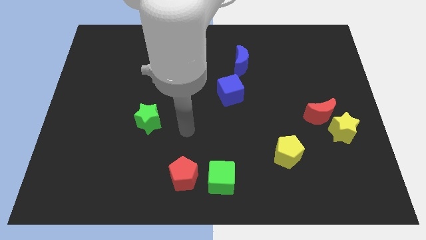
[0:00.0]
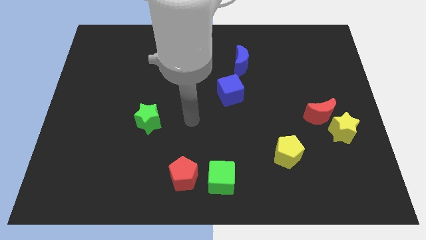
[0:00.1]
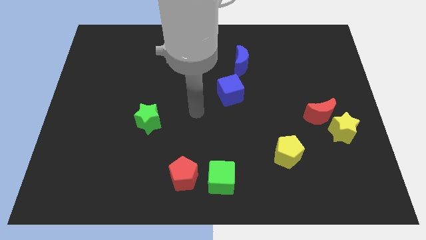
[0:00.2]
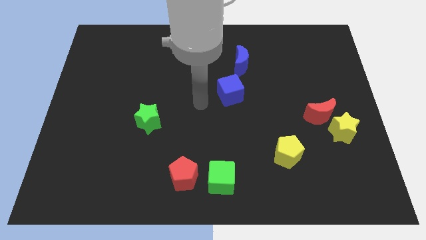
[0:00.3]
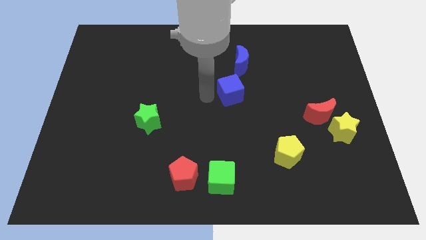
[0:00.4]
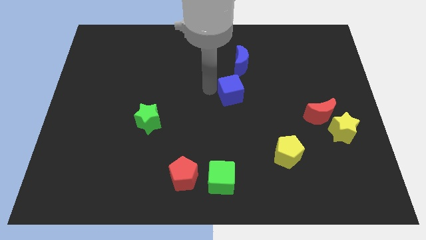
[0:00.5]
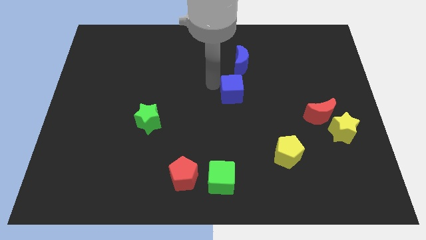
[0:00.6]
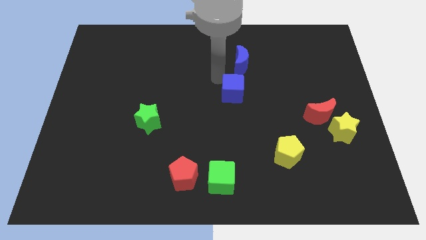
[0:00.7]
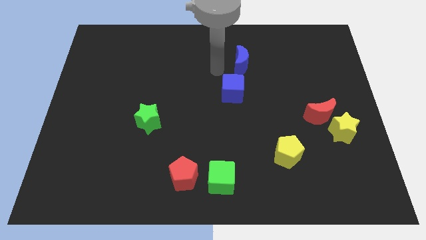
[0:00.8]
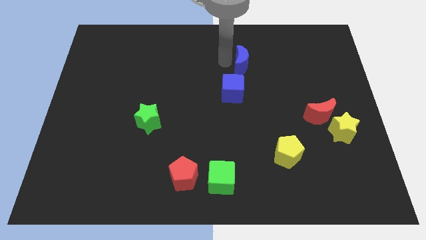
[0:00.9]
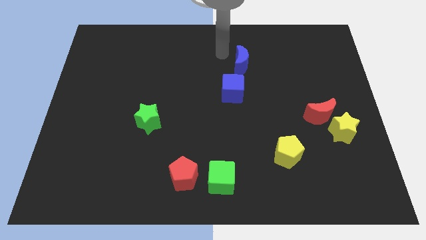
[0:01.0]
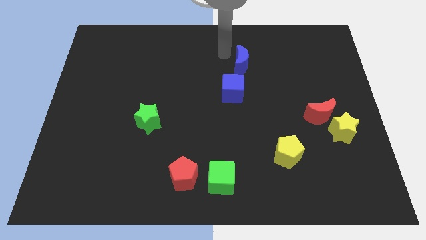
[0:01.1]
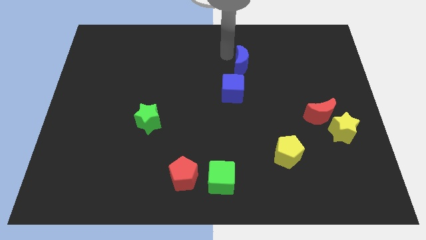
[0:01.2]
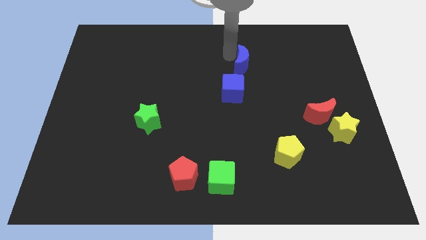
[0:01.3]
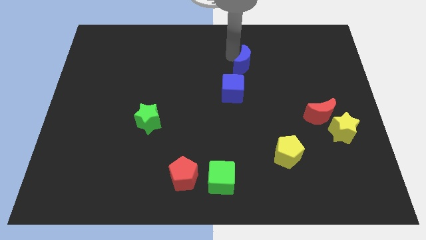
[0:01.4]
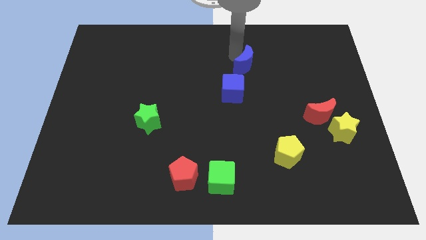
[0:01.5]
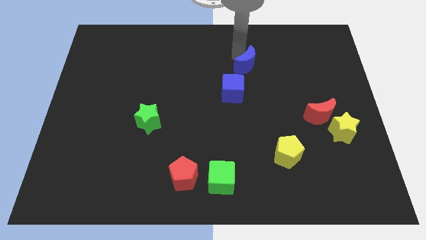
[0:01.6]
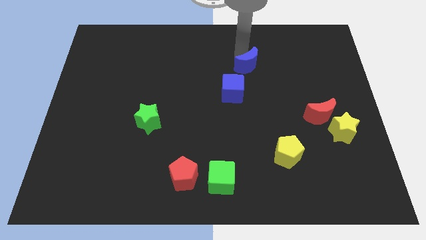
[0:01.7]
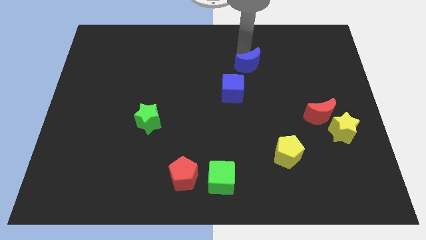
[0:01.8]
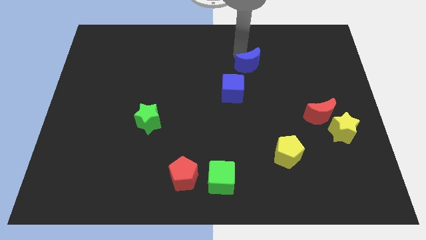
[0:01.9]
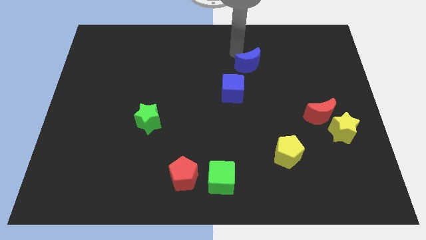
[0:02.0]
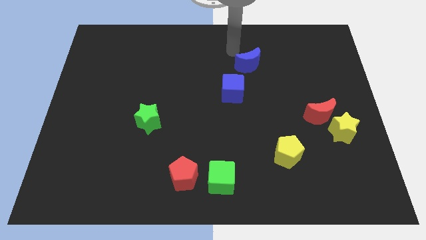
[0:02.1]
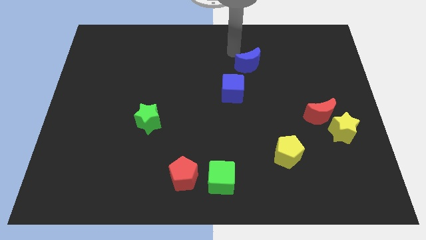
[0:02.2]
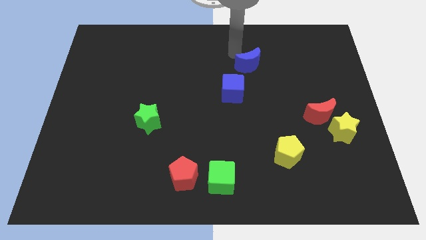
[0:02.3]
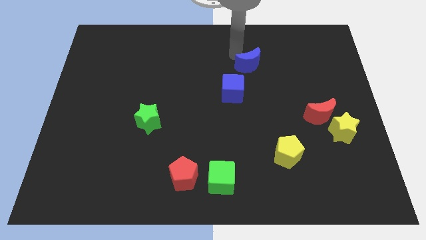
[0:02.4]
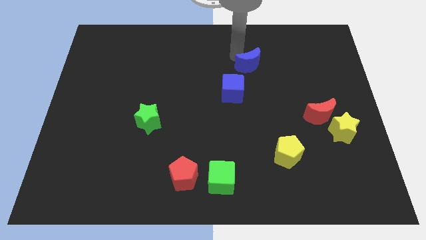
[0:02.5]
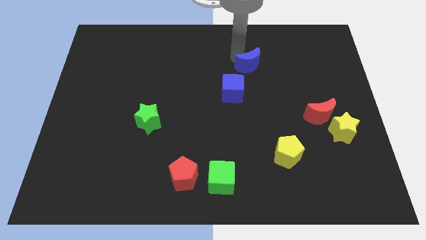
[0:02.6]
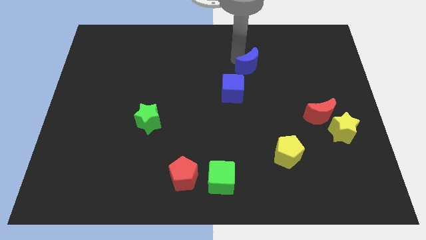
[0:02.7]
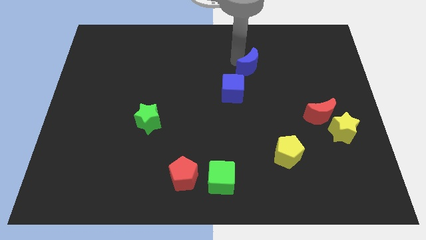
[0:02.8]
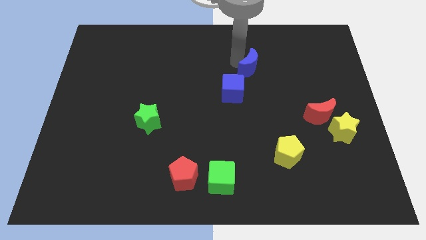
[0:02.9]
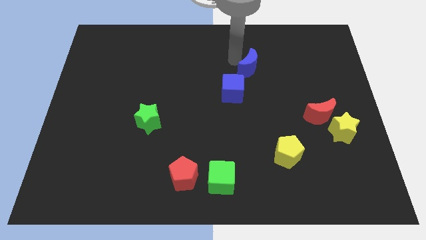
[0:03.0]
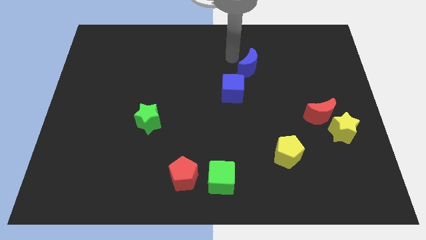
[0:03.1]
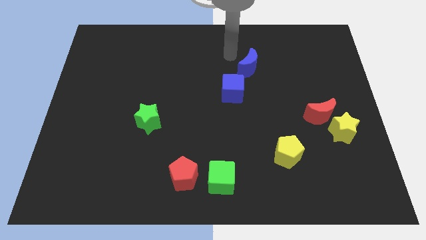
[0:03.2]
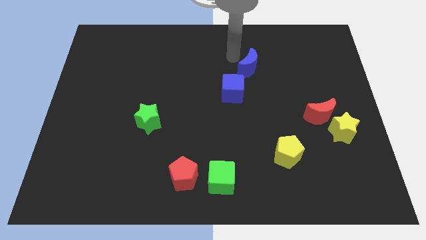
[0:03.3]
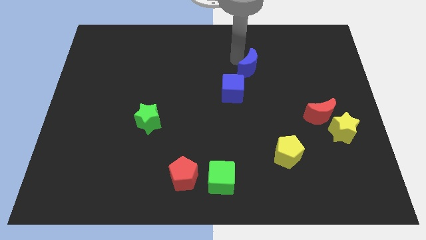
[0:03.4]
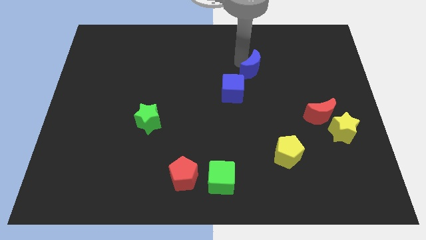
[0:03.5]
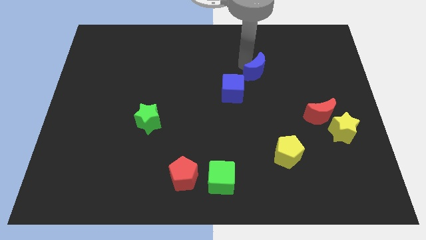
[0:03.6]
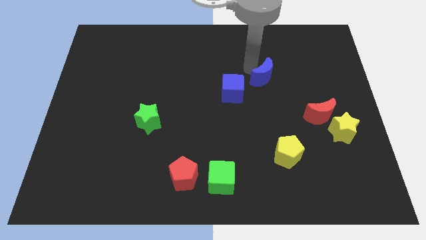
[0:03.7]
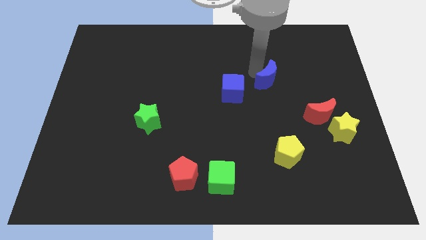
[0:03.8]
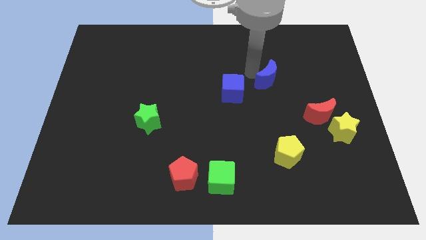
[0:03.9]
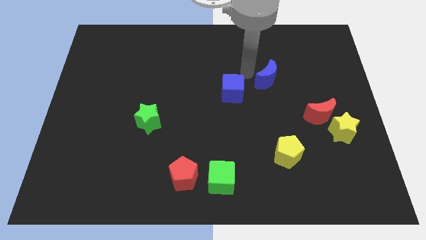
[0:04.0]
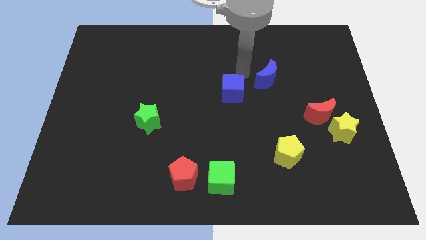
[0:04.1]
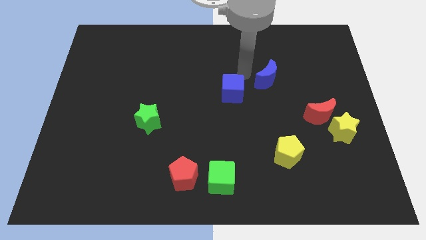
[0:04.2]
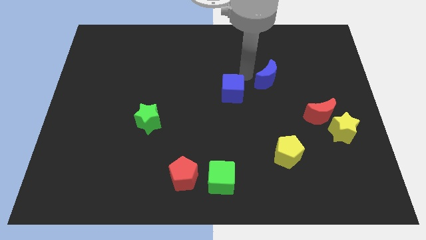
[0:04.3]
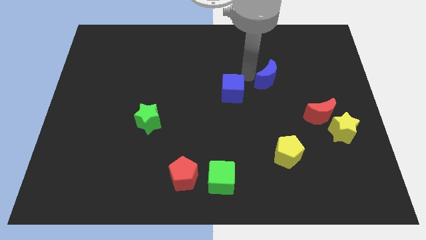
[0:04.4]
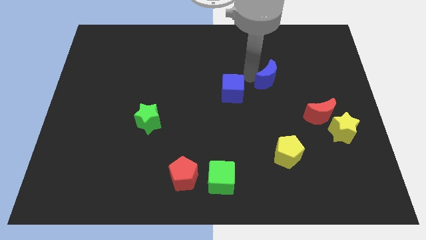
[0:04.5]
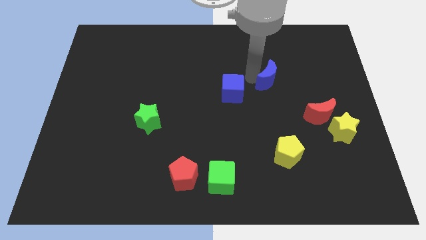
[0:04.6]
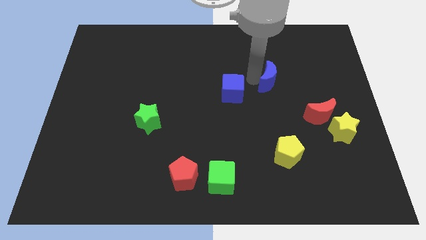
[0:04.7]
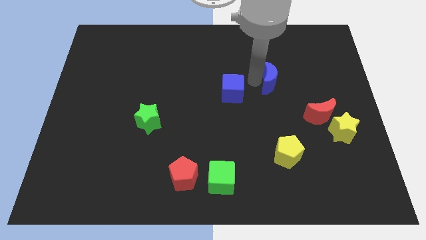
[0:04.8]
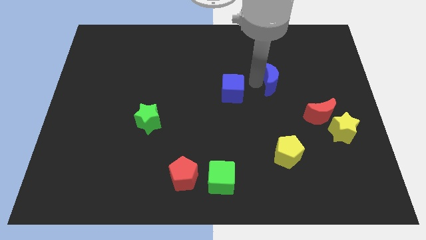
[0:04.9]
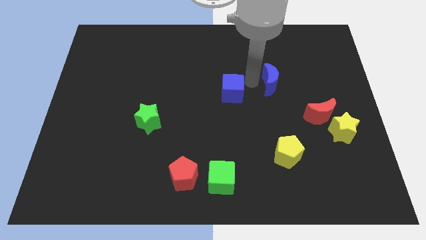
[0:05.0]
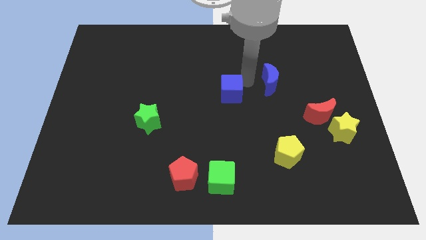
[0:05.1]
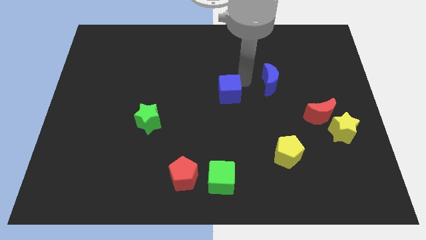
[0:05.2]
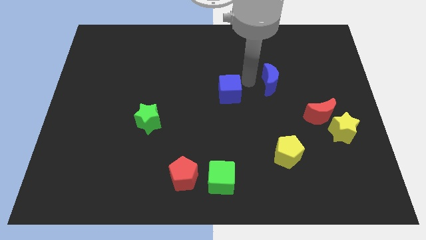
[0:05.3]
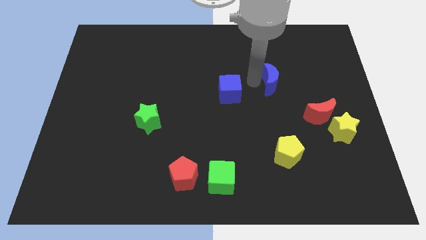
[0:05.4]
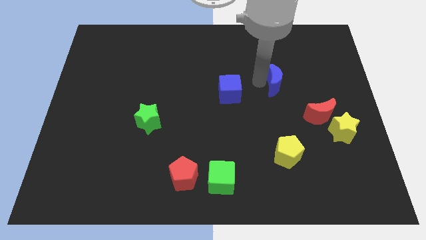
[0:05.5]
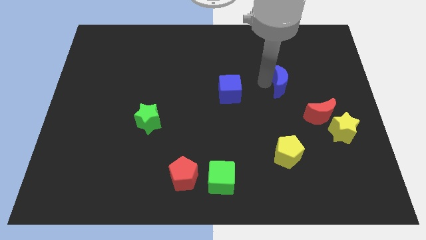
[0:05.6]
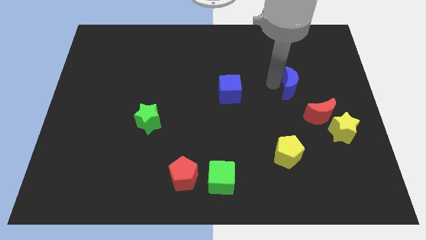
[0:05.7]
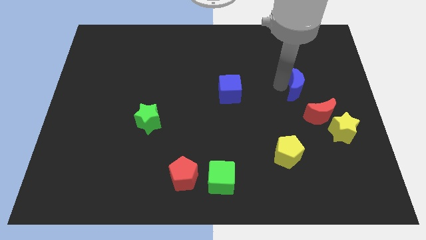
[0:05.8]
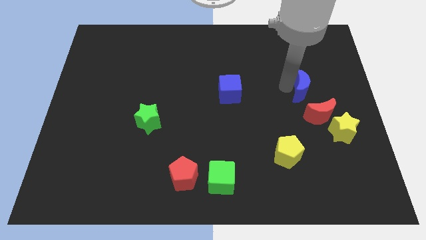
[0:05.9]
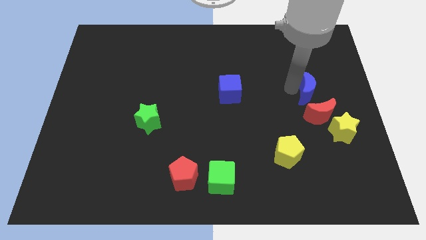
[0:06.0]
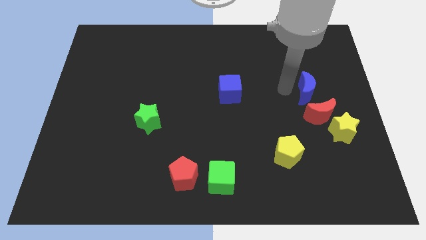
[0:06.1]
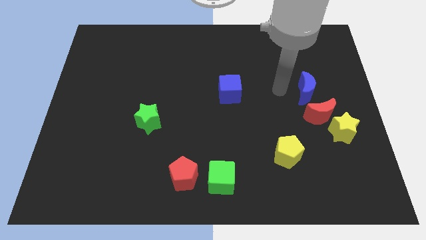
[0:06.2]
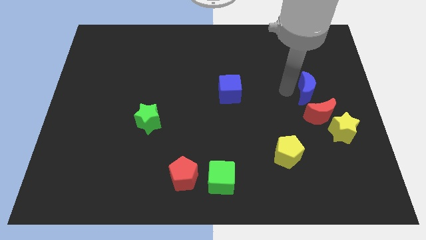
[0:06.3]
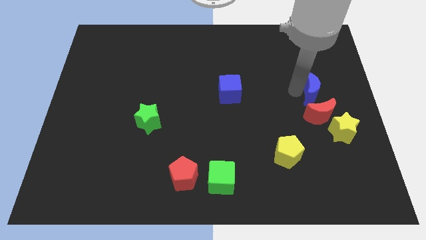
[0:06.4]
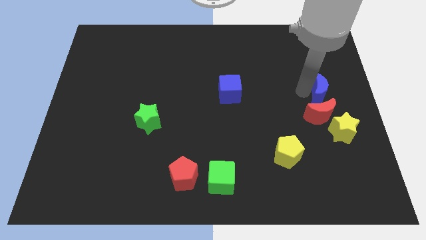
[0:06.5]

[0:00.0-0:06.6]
move the blue moon to the right side
